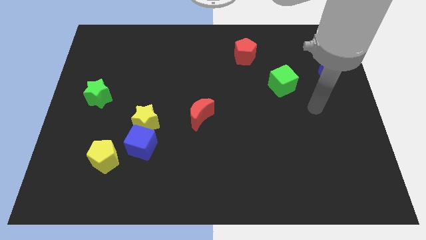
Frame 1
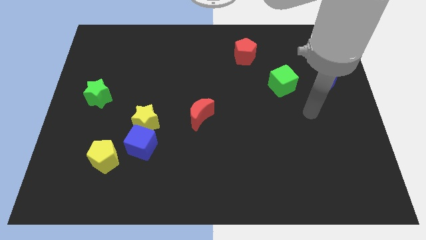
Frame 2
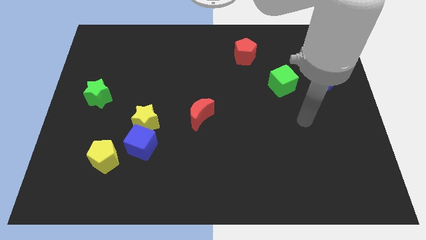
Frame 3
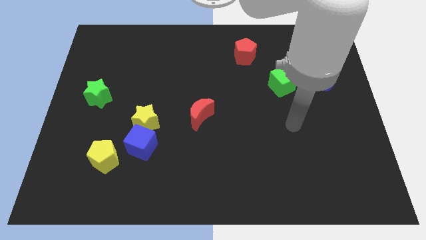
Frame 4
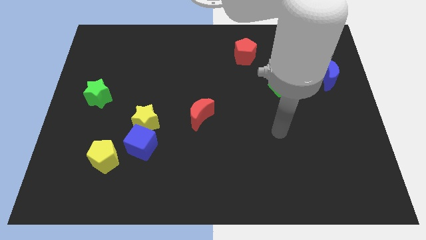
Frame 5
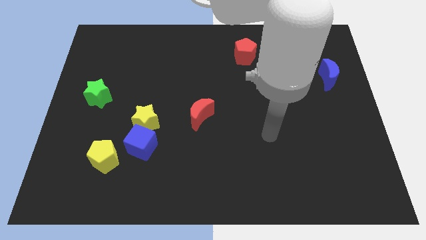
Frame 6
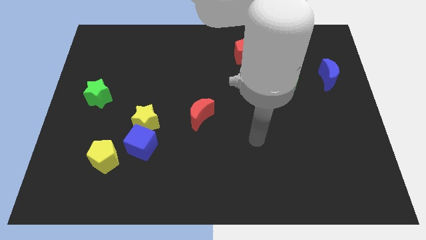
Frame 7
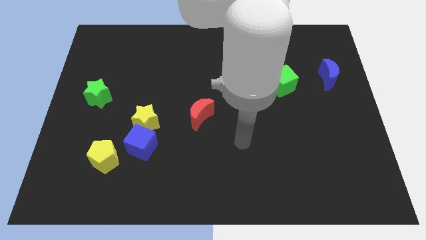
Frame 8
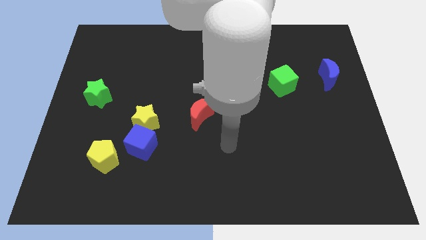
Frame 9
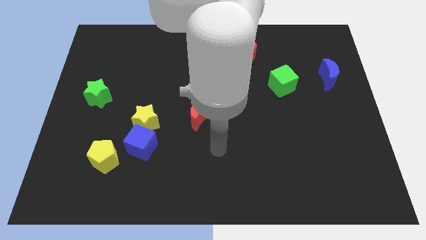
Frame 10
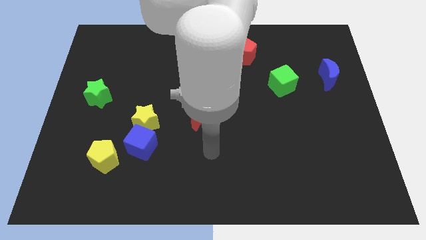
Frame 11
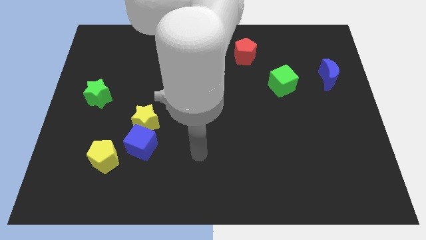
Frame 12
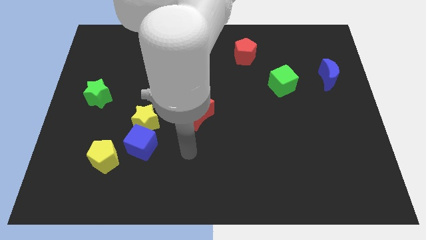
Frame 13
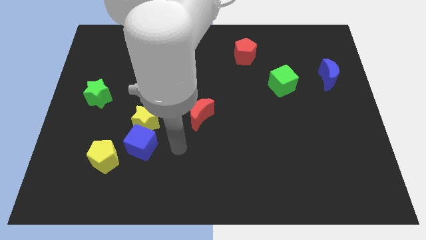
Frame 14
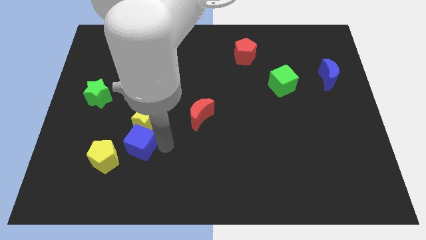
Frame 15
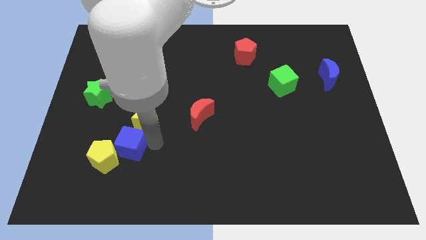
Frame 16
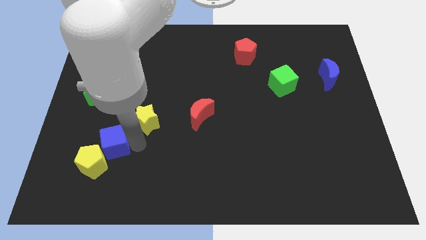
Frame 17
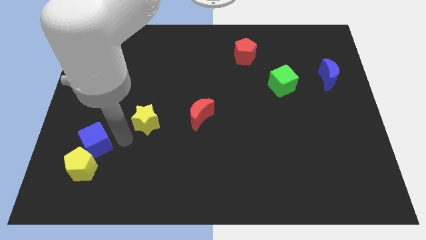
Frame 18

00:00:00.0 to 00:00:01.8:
separate the yellow star from the blue cube

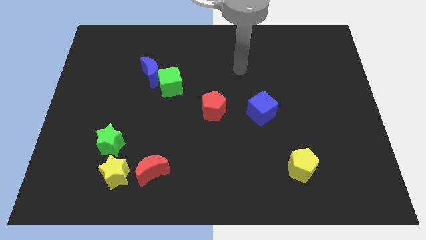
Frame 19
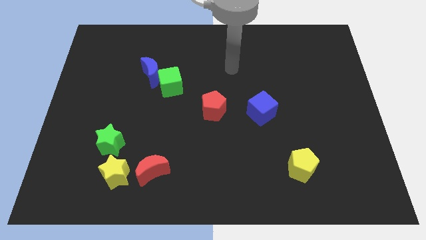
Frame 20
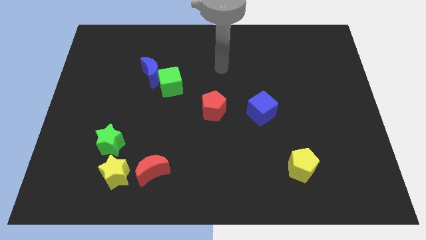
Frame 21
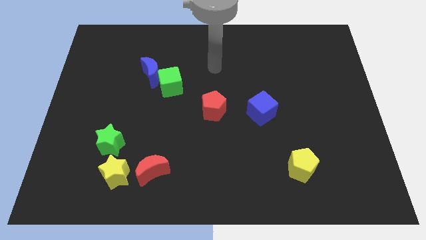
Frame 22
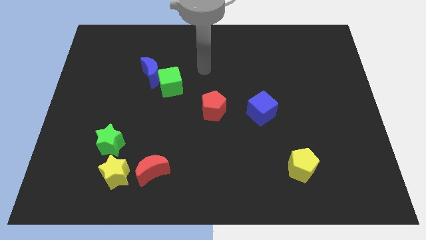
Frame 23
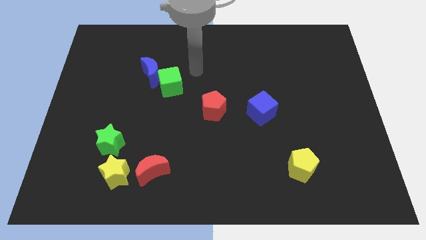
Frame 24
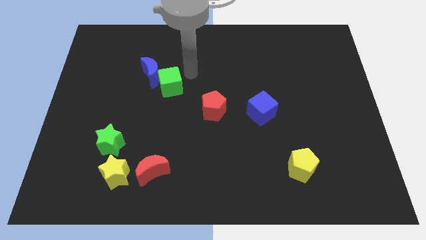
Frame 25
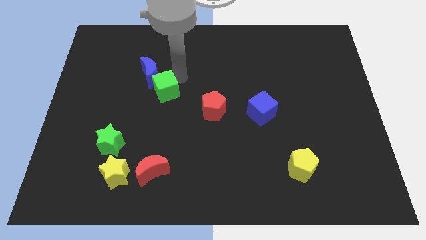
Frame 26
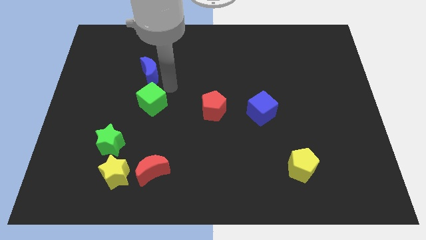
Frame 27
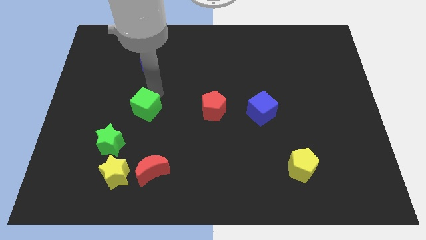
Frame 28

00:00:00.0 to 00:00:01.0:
move the blue moon away from the green cube

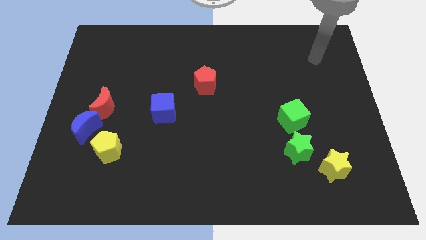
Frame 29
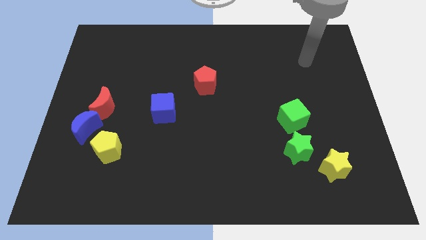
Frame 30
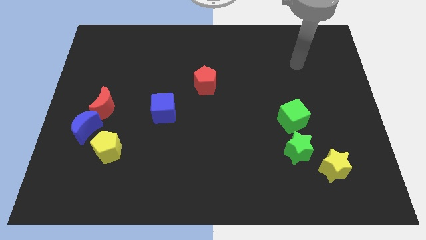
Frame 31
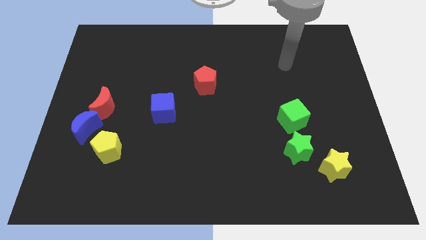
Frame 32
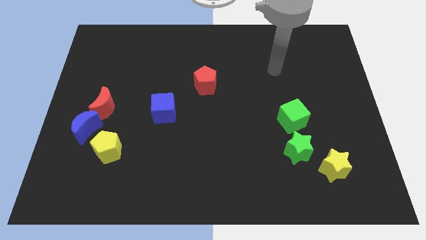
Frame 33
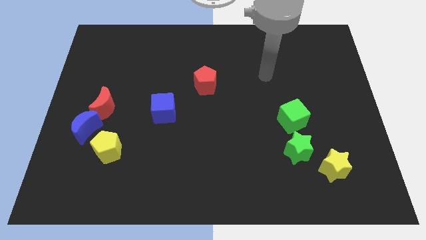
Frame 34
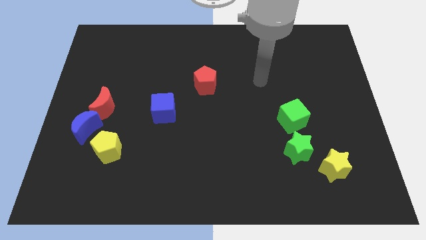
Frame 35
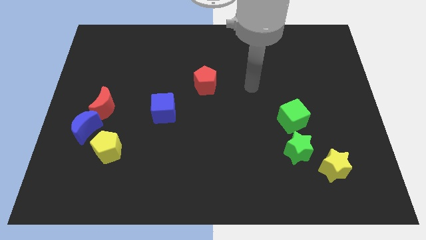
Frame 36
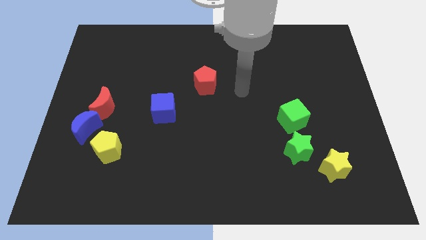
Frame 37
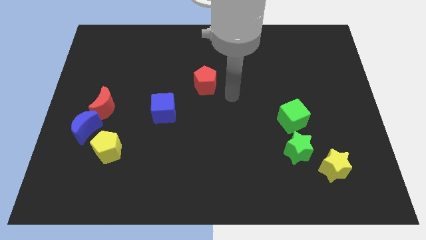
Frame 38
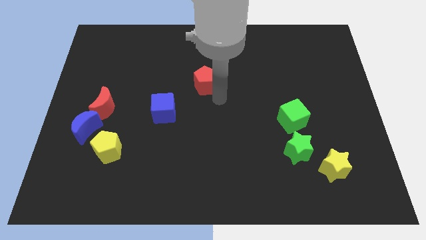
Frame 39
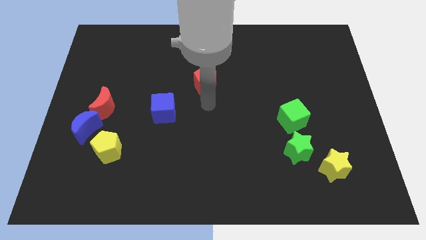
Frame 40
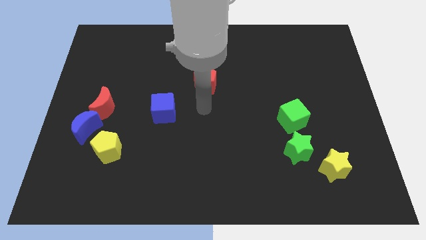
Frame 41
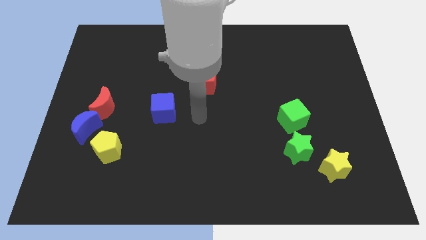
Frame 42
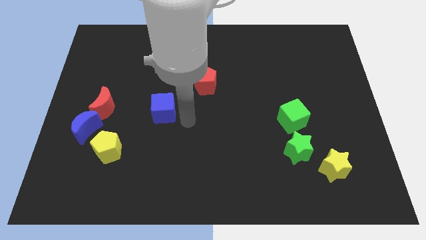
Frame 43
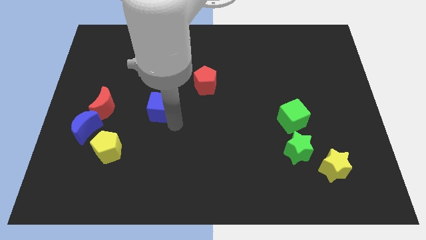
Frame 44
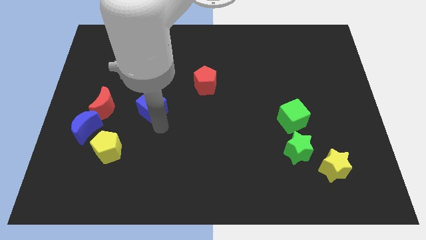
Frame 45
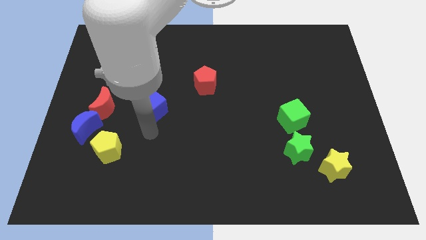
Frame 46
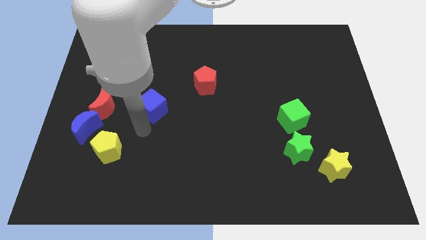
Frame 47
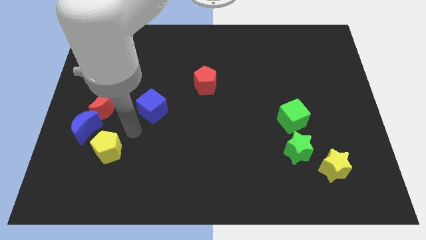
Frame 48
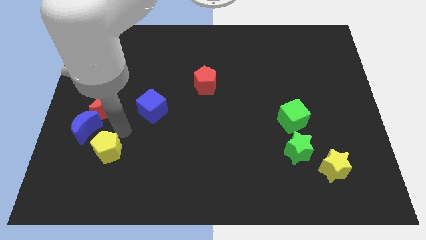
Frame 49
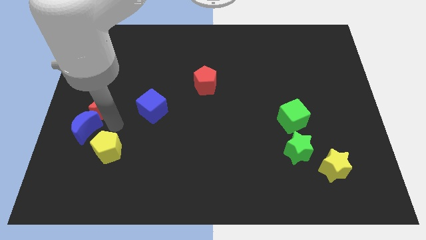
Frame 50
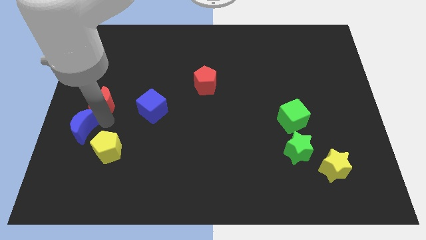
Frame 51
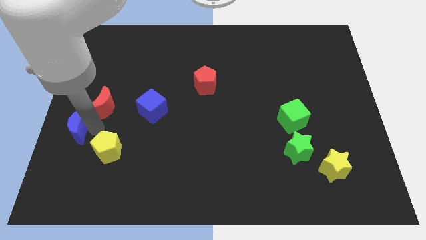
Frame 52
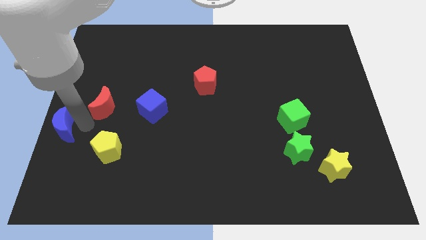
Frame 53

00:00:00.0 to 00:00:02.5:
separate the red moon from the blue moon

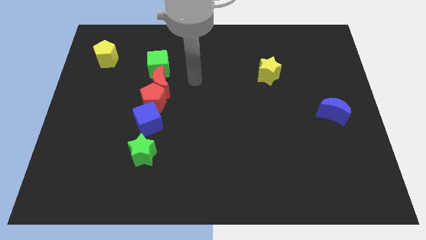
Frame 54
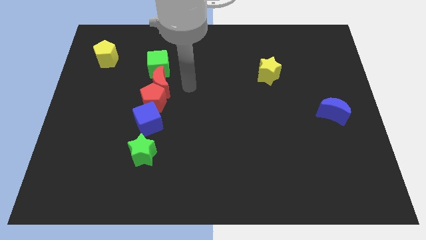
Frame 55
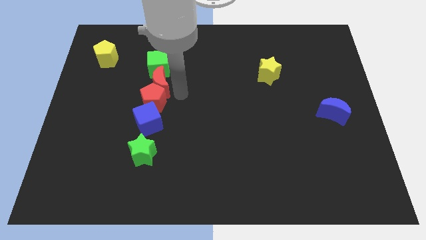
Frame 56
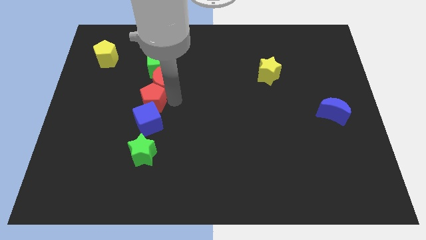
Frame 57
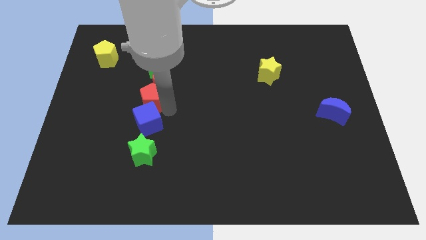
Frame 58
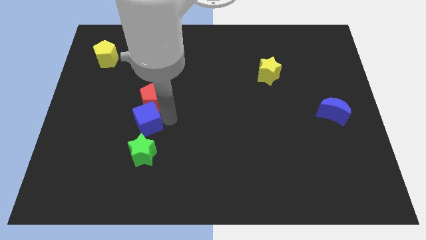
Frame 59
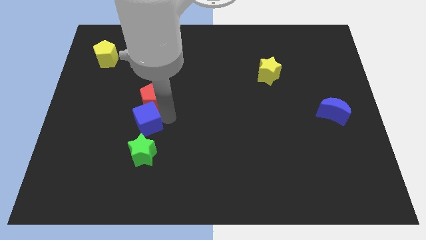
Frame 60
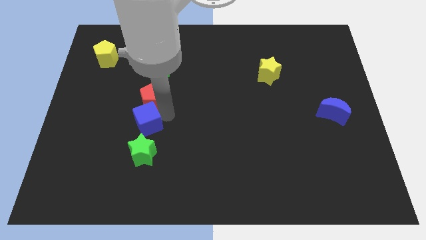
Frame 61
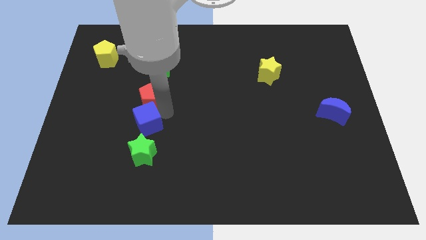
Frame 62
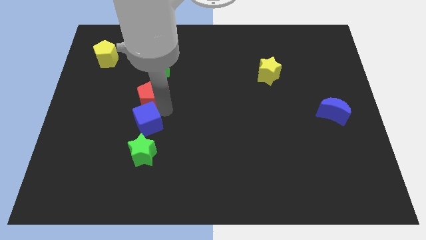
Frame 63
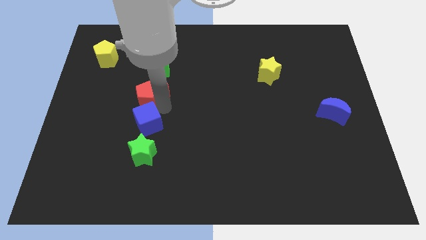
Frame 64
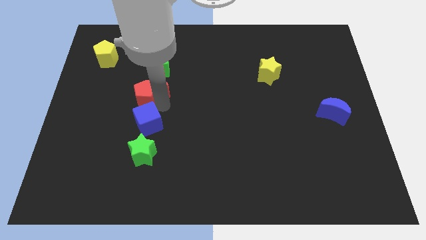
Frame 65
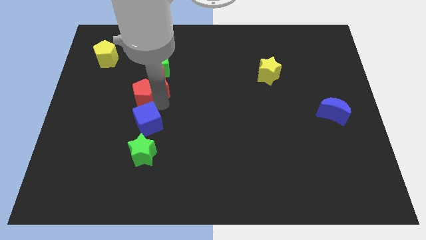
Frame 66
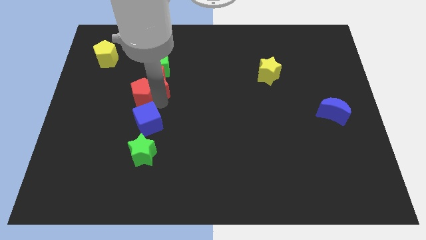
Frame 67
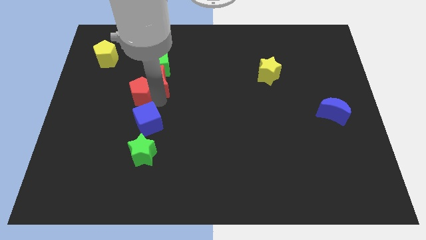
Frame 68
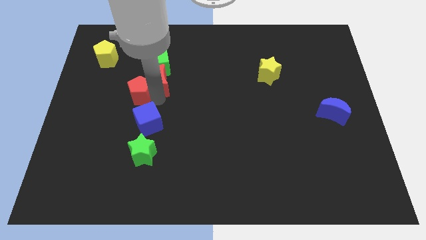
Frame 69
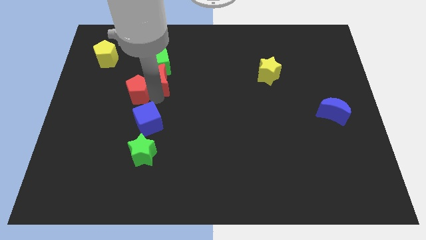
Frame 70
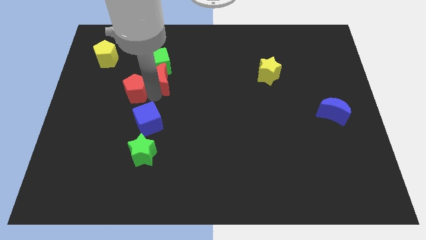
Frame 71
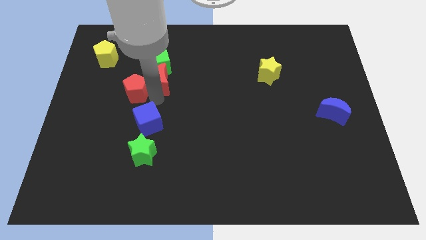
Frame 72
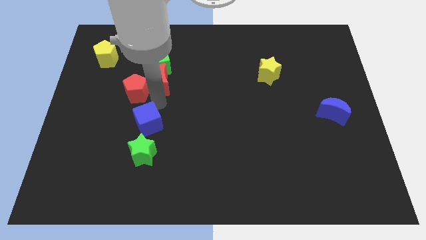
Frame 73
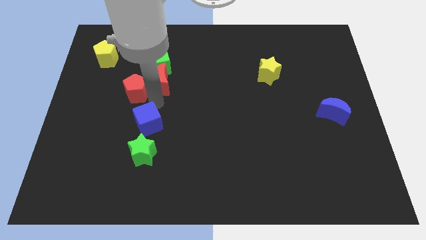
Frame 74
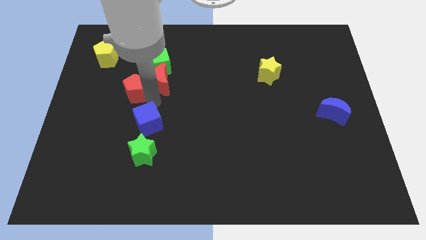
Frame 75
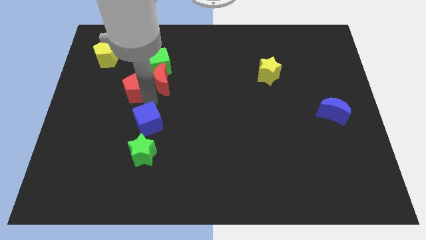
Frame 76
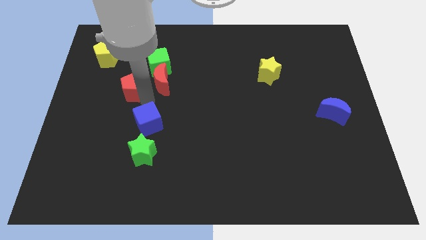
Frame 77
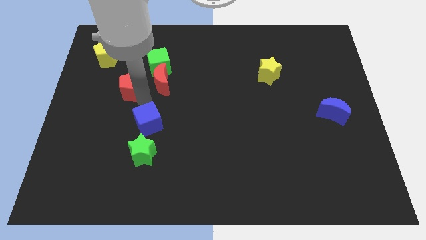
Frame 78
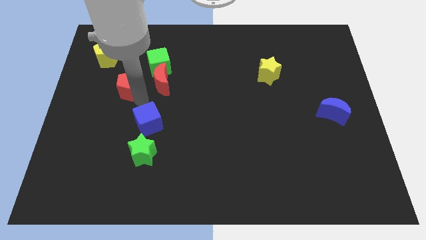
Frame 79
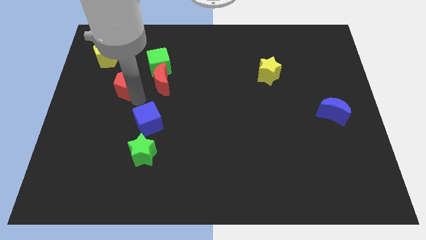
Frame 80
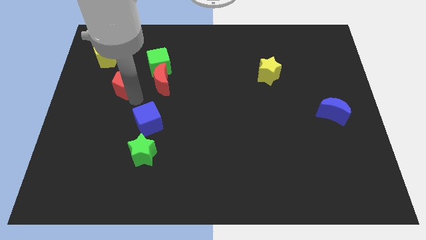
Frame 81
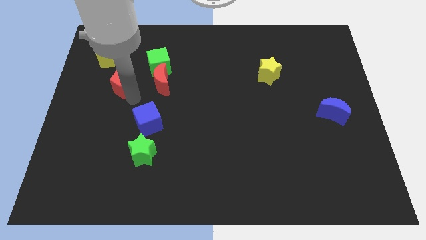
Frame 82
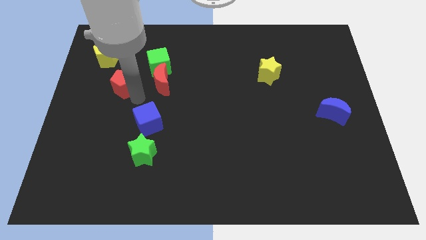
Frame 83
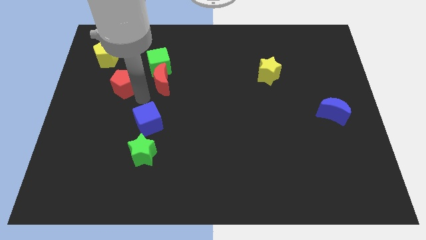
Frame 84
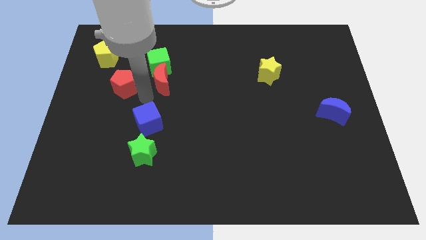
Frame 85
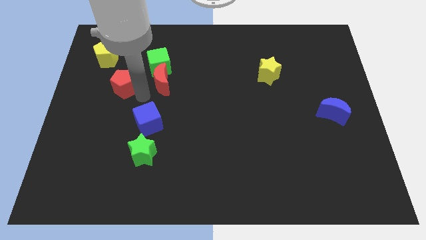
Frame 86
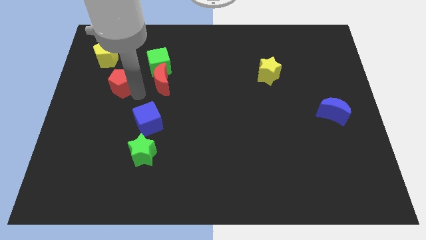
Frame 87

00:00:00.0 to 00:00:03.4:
move the red pentagon away from the red moon and blue cube

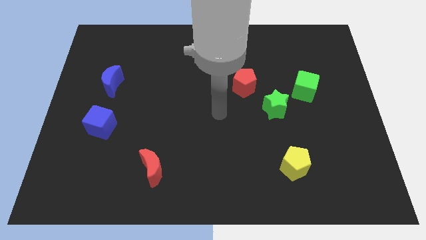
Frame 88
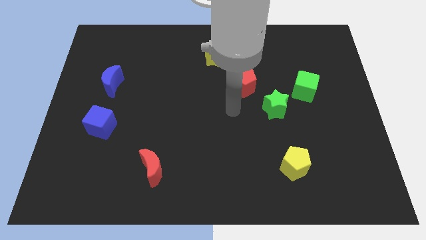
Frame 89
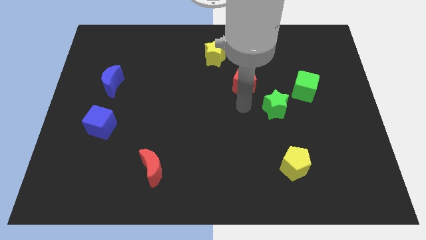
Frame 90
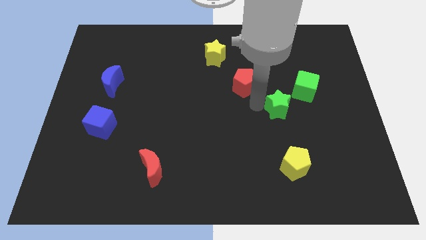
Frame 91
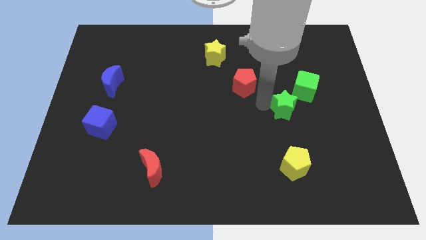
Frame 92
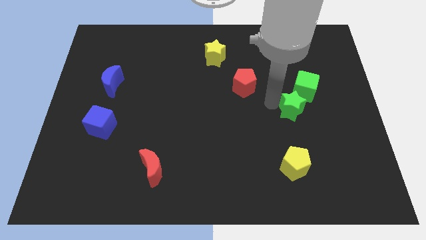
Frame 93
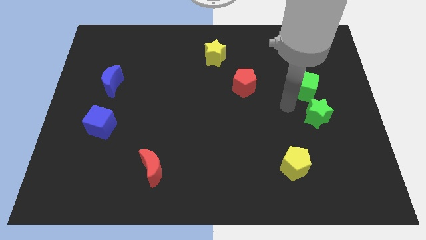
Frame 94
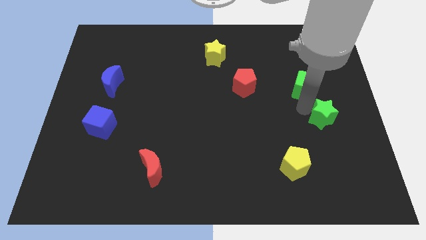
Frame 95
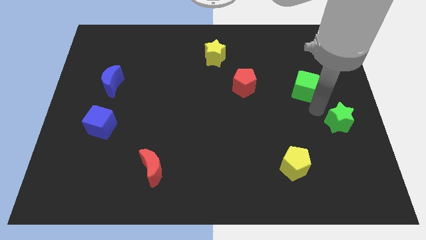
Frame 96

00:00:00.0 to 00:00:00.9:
separate the green cube from the green star
